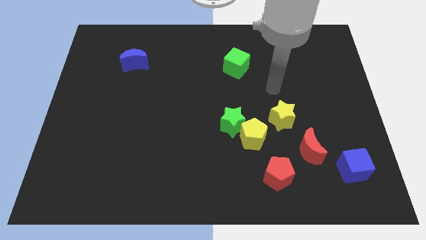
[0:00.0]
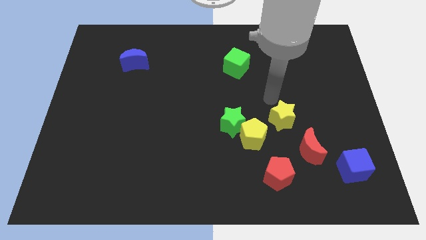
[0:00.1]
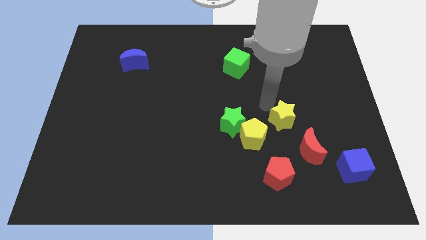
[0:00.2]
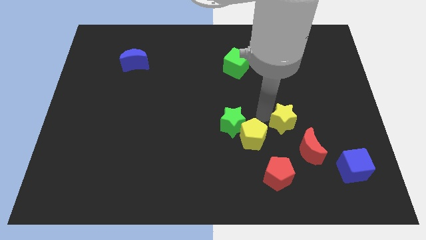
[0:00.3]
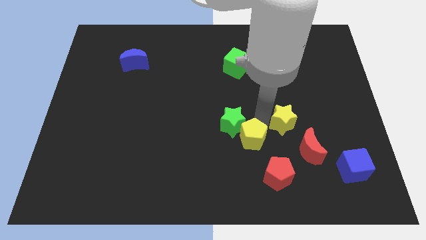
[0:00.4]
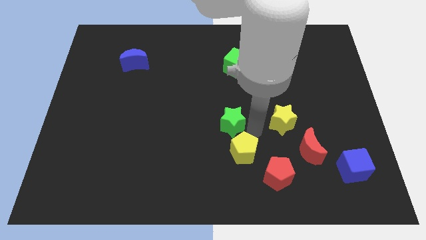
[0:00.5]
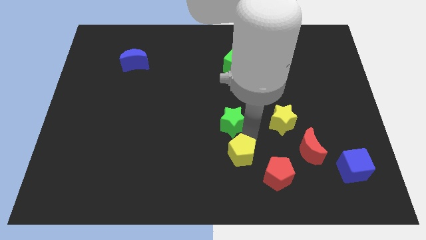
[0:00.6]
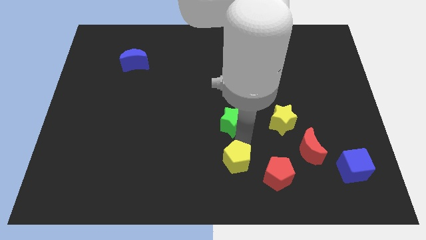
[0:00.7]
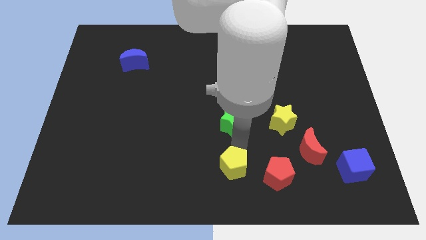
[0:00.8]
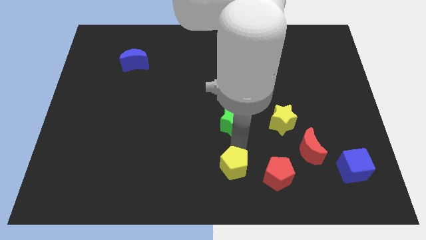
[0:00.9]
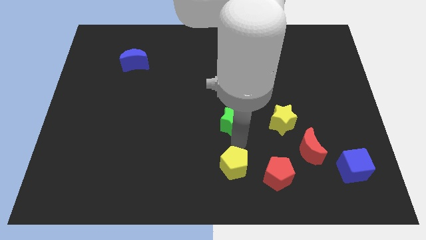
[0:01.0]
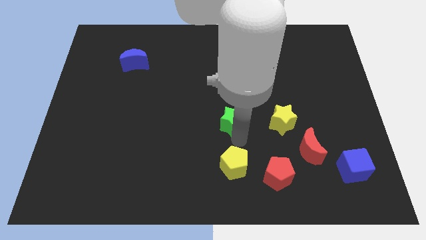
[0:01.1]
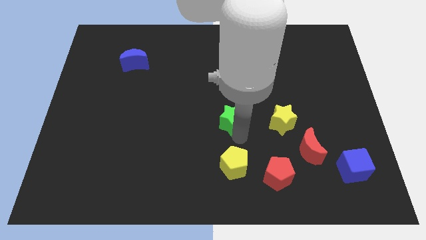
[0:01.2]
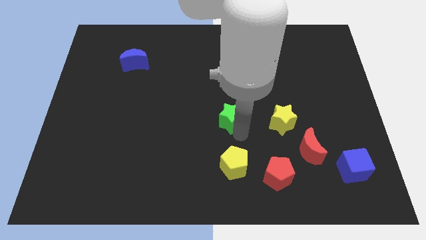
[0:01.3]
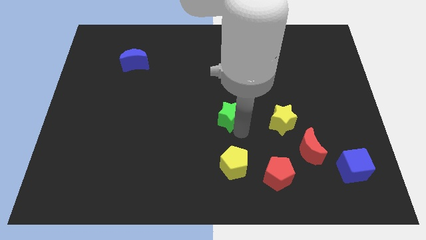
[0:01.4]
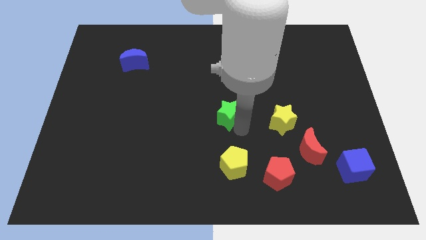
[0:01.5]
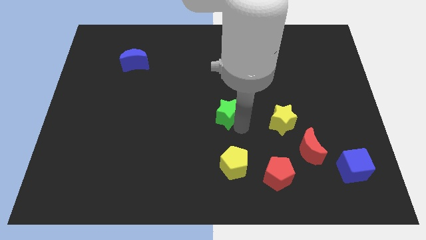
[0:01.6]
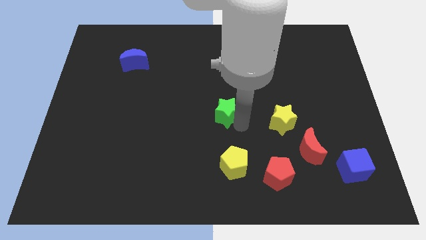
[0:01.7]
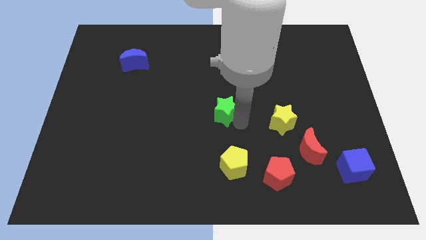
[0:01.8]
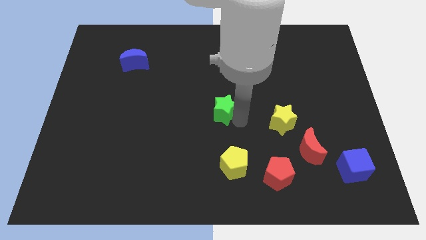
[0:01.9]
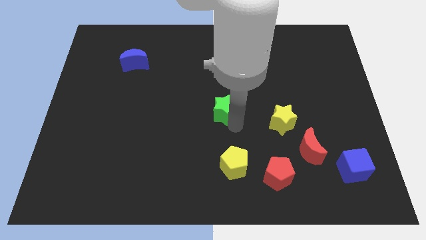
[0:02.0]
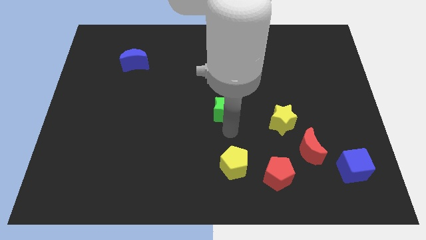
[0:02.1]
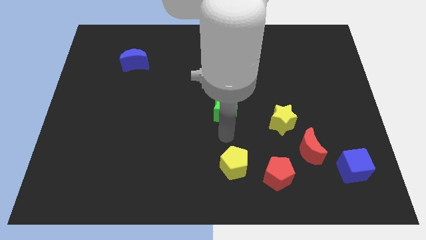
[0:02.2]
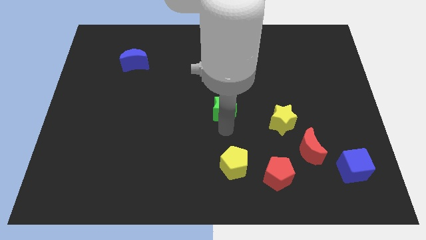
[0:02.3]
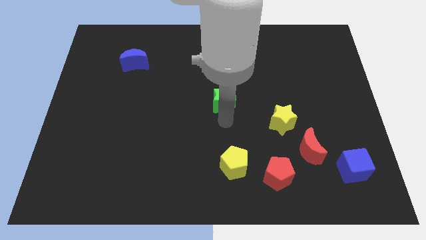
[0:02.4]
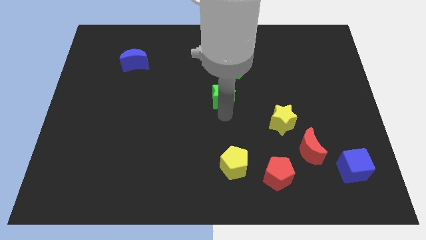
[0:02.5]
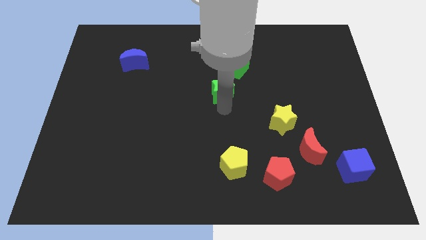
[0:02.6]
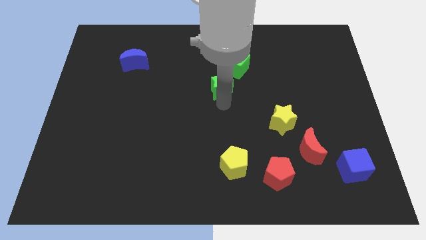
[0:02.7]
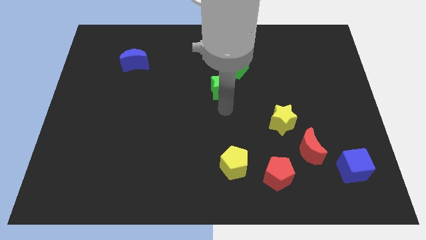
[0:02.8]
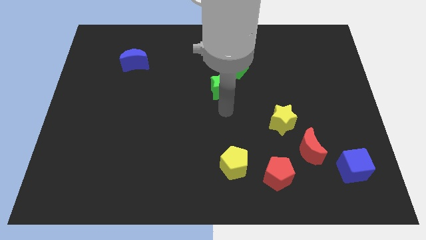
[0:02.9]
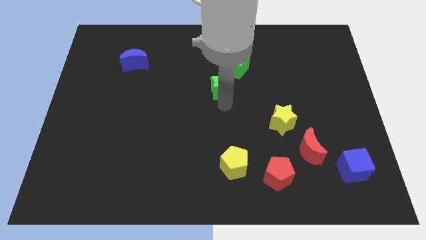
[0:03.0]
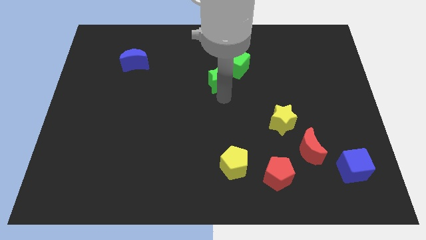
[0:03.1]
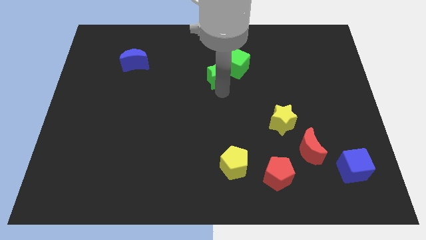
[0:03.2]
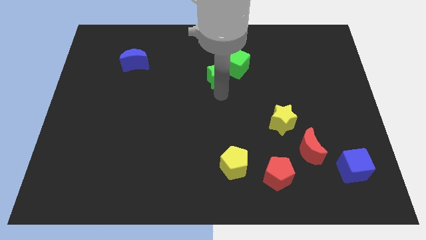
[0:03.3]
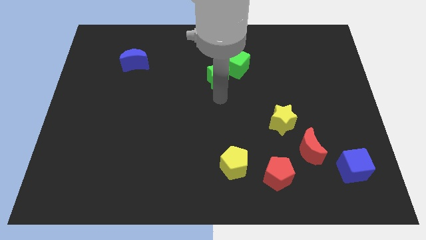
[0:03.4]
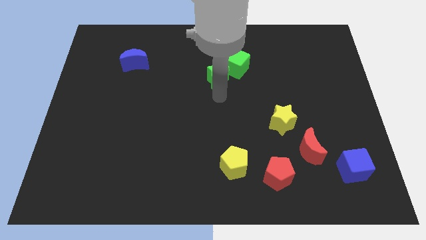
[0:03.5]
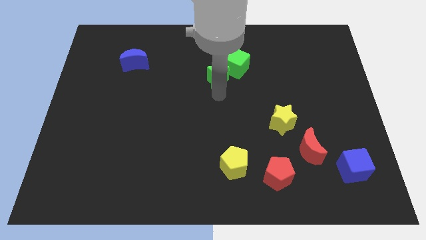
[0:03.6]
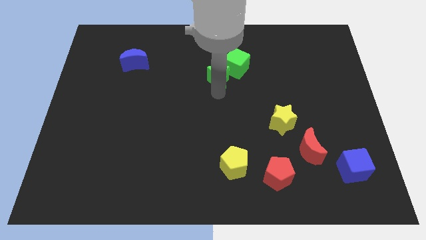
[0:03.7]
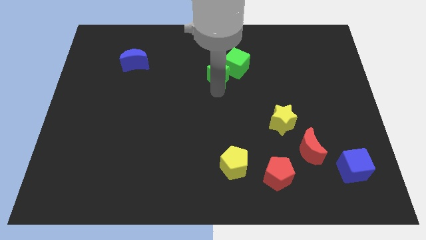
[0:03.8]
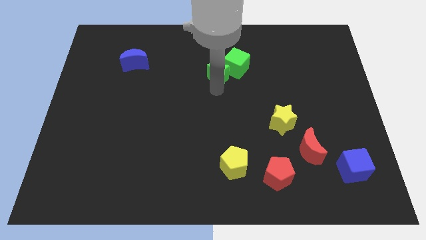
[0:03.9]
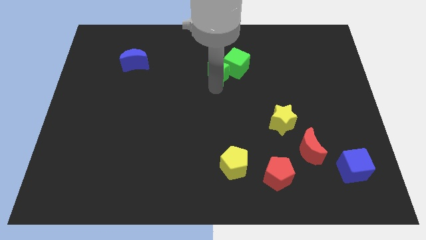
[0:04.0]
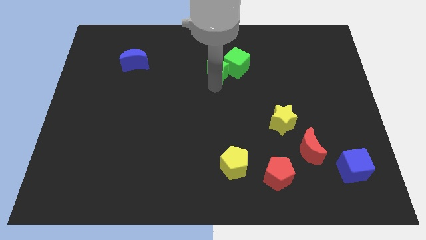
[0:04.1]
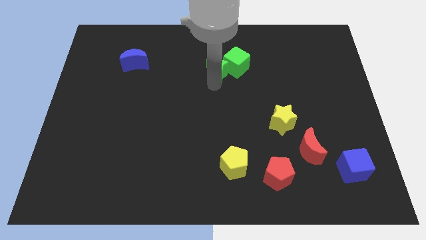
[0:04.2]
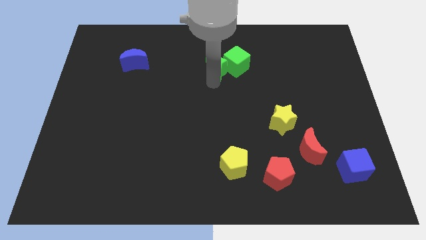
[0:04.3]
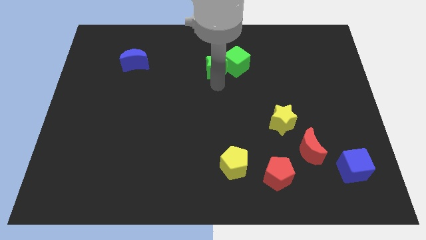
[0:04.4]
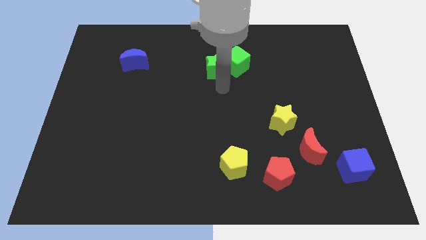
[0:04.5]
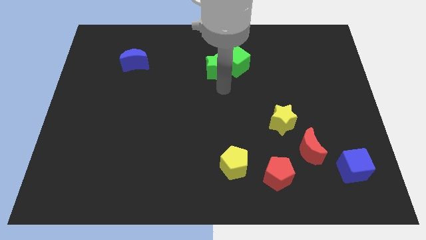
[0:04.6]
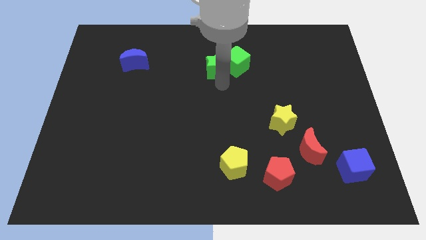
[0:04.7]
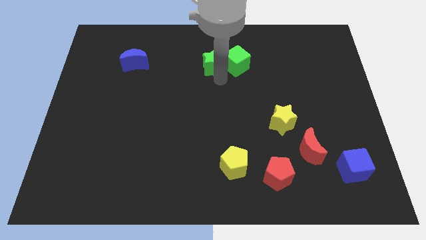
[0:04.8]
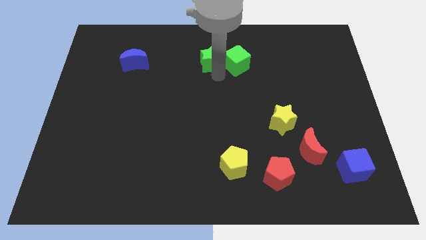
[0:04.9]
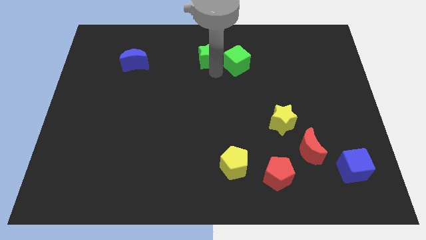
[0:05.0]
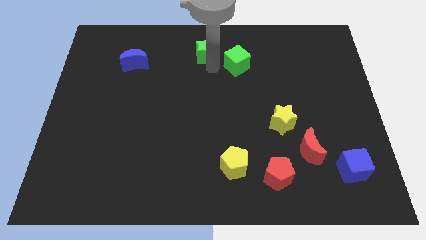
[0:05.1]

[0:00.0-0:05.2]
move the green star to the towards your base

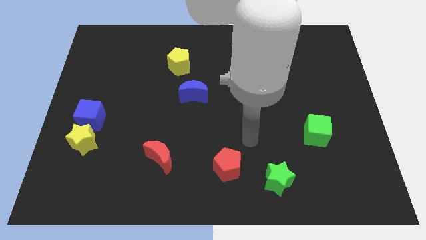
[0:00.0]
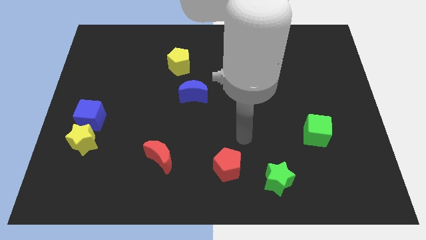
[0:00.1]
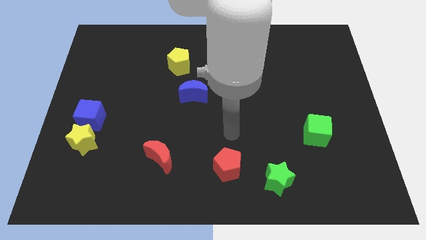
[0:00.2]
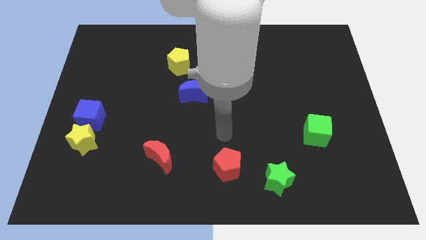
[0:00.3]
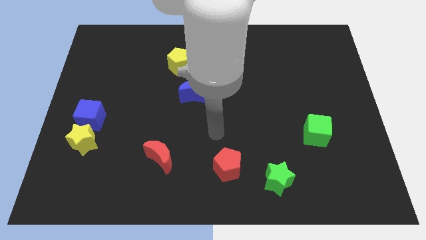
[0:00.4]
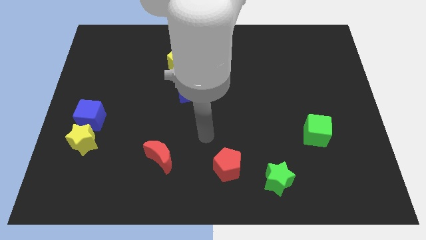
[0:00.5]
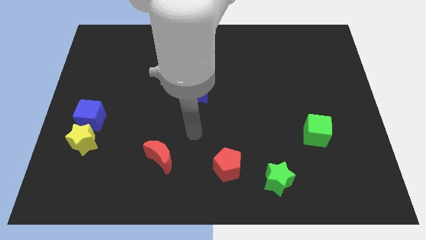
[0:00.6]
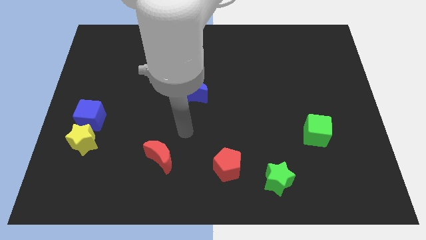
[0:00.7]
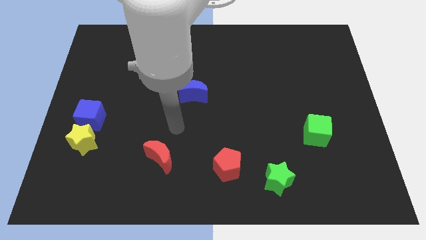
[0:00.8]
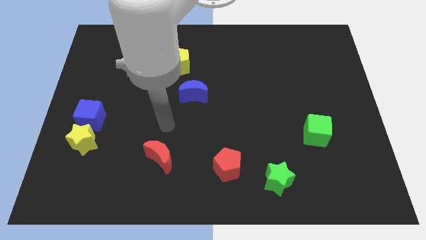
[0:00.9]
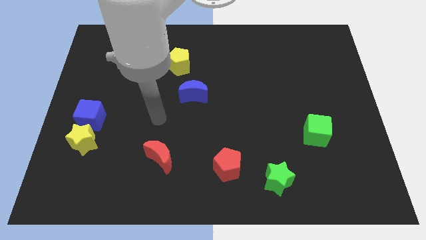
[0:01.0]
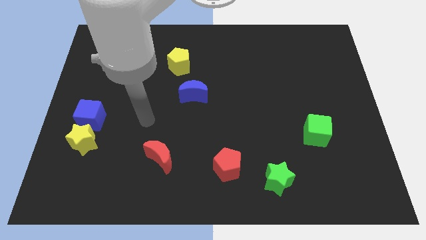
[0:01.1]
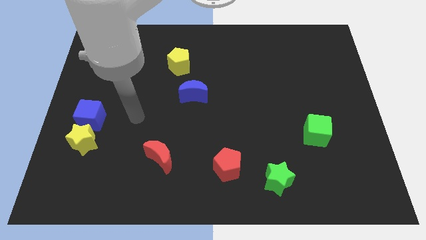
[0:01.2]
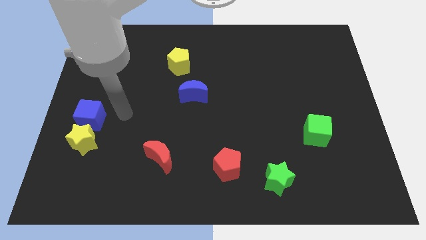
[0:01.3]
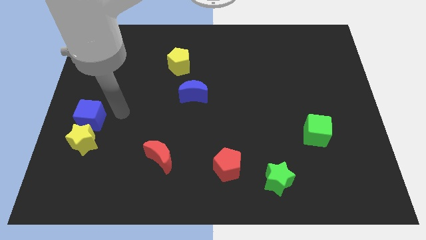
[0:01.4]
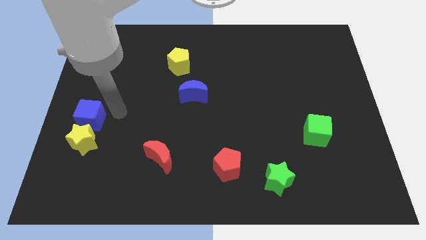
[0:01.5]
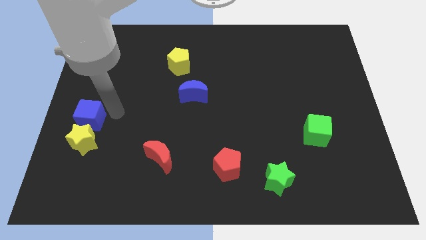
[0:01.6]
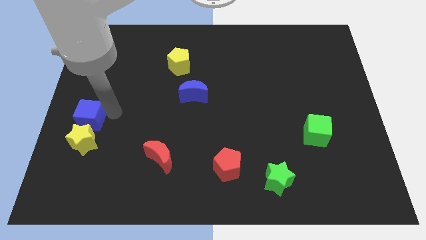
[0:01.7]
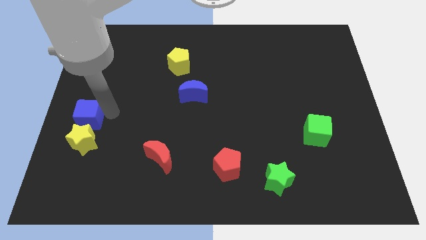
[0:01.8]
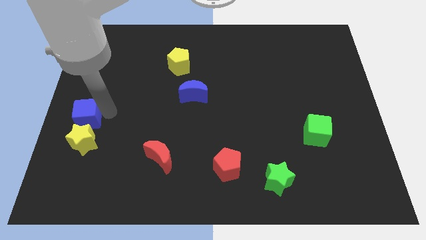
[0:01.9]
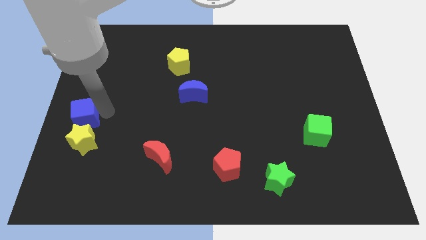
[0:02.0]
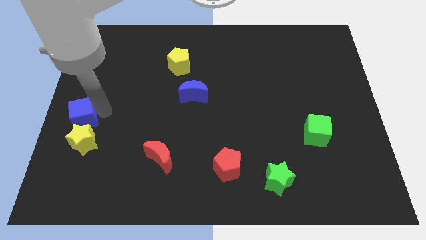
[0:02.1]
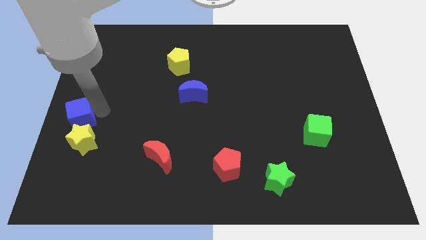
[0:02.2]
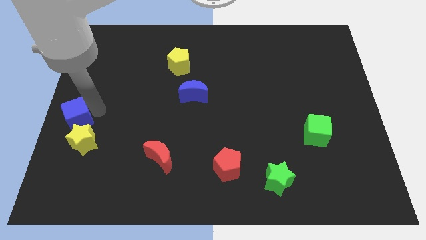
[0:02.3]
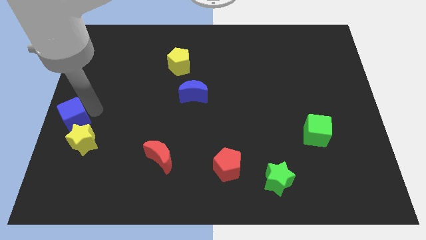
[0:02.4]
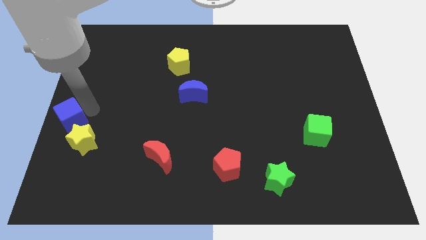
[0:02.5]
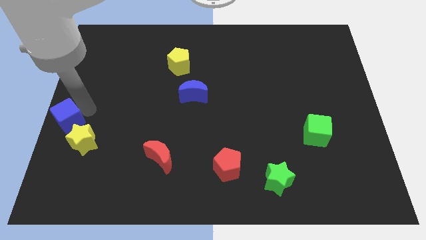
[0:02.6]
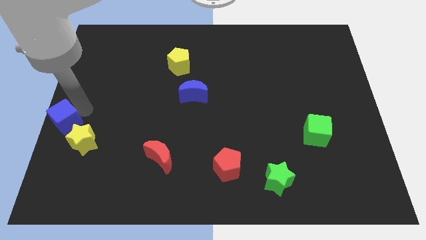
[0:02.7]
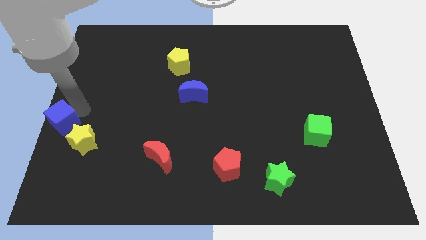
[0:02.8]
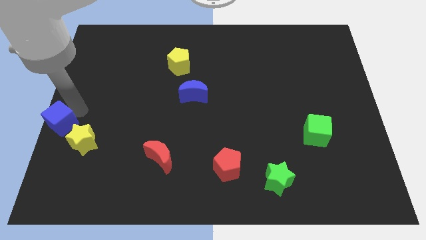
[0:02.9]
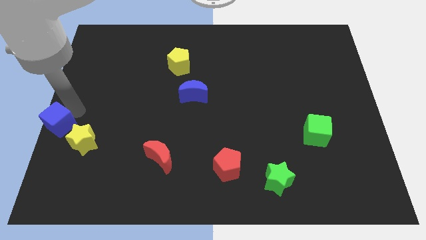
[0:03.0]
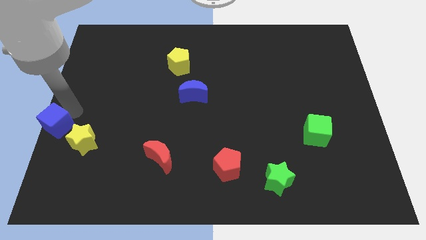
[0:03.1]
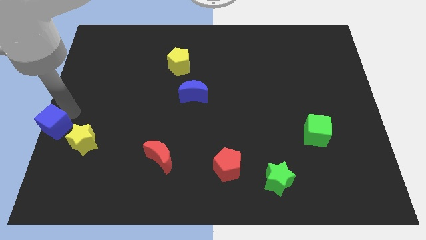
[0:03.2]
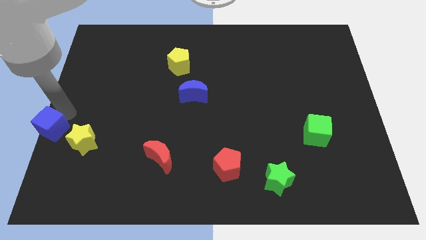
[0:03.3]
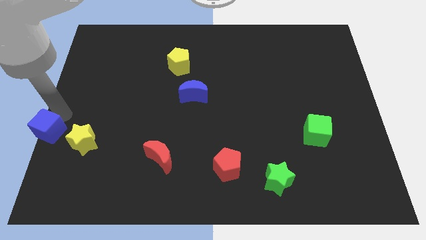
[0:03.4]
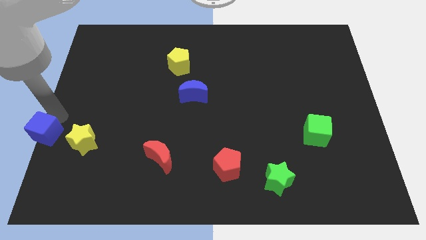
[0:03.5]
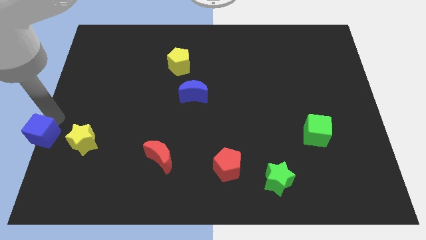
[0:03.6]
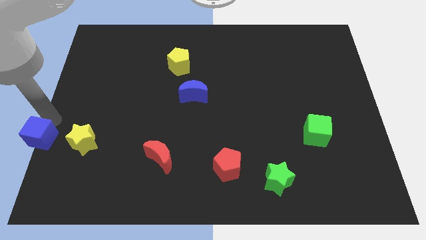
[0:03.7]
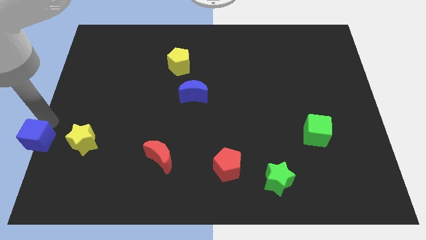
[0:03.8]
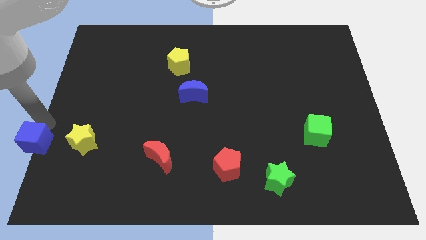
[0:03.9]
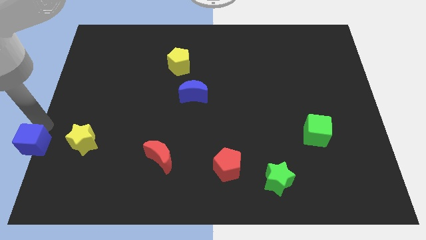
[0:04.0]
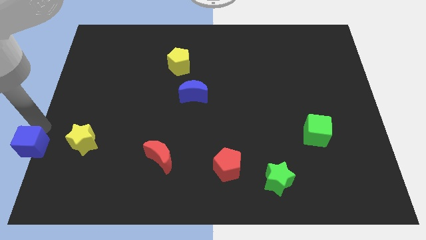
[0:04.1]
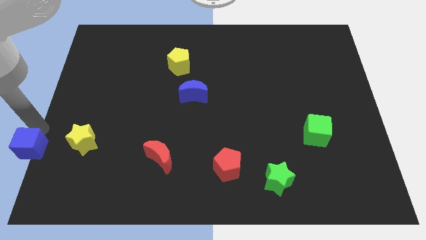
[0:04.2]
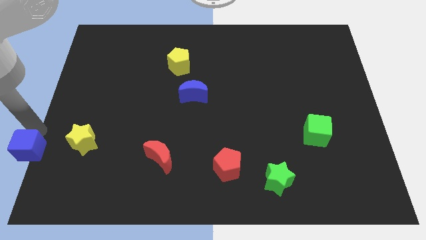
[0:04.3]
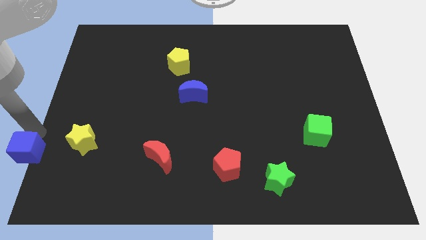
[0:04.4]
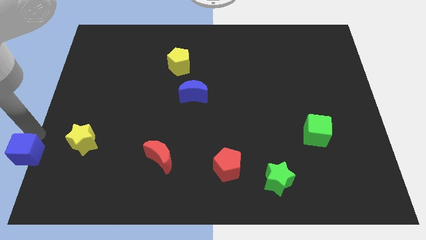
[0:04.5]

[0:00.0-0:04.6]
put the blue cube to the bottom left of the board
